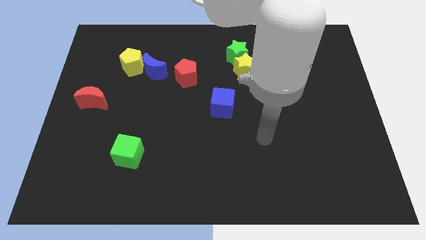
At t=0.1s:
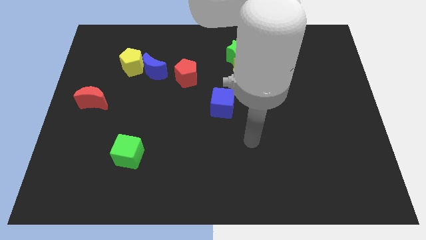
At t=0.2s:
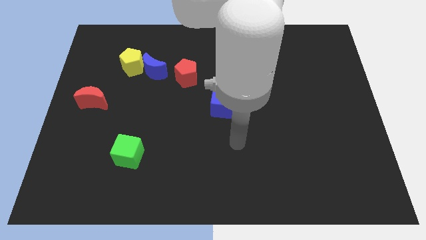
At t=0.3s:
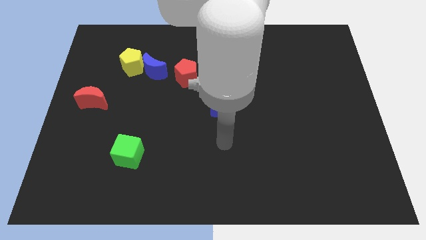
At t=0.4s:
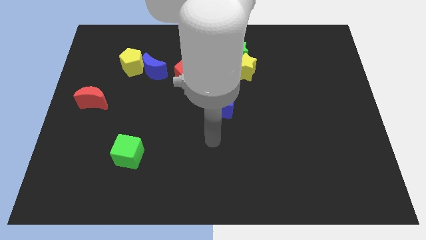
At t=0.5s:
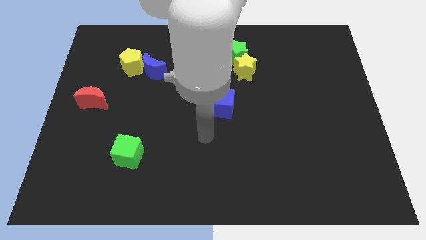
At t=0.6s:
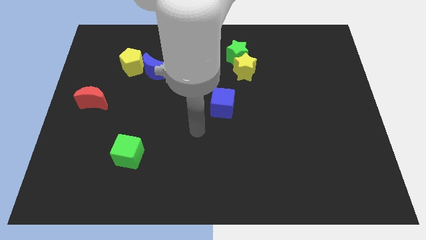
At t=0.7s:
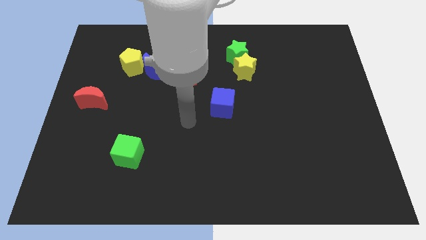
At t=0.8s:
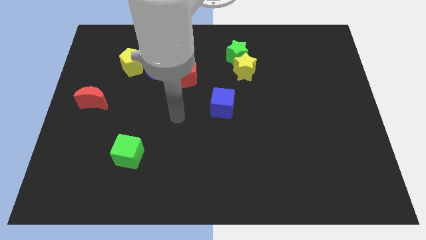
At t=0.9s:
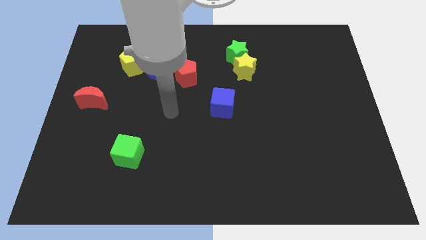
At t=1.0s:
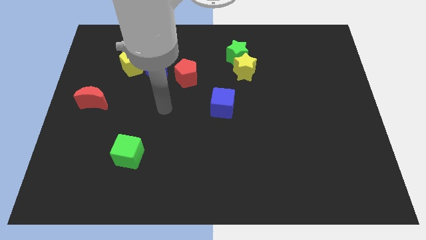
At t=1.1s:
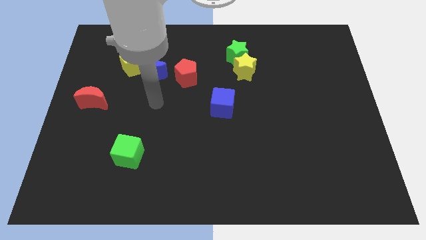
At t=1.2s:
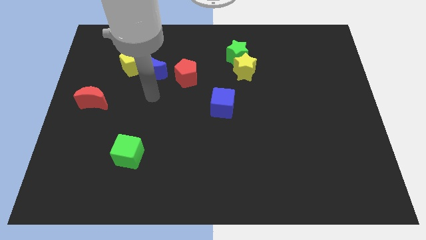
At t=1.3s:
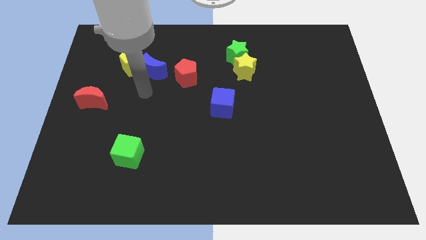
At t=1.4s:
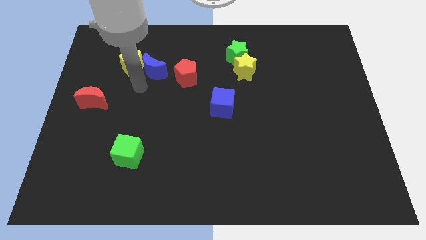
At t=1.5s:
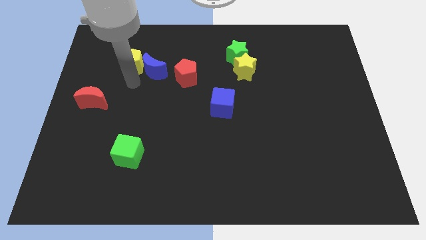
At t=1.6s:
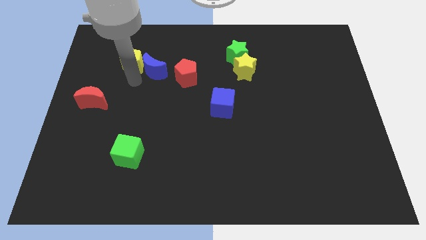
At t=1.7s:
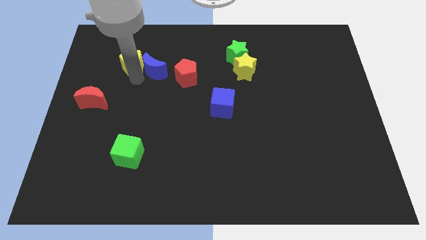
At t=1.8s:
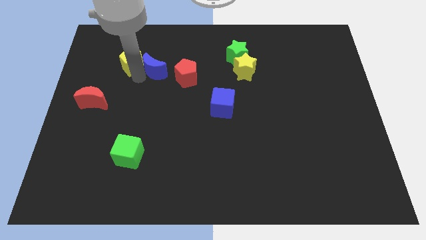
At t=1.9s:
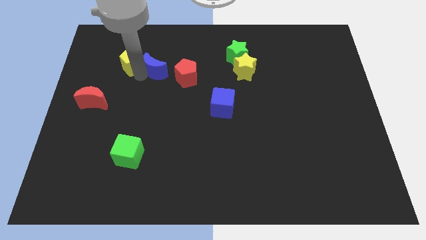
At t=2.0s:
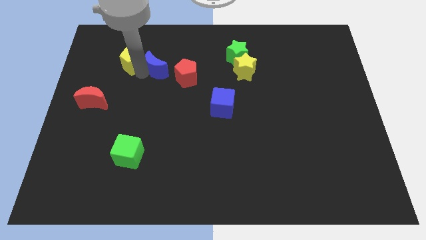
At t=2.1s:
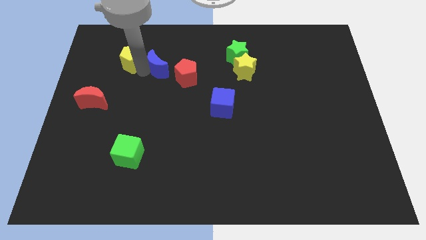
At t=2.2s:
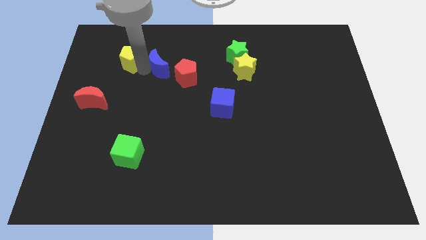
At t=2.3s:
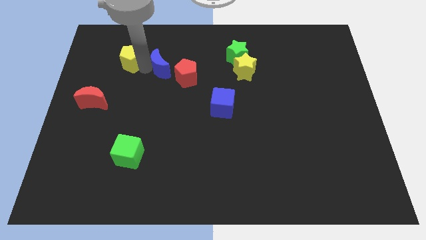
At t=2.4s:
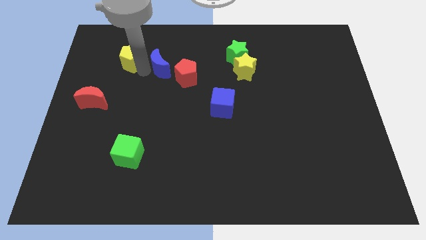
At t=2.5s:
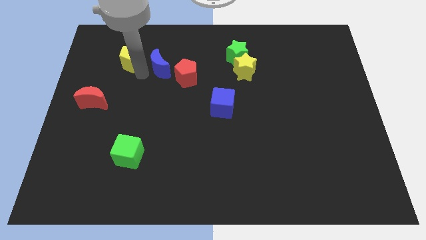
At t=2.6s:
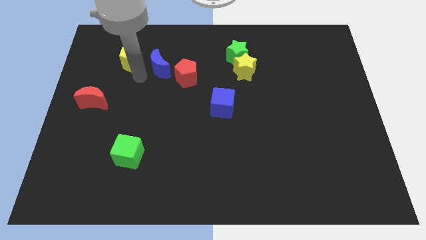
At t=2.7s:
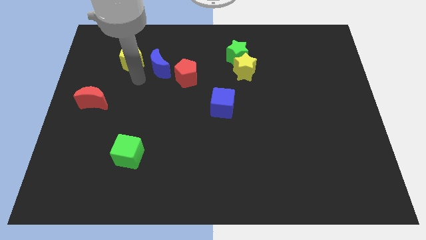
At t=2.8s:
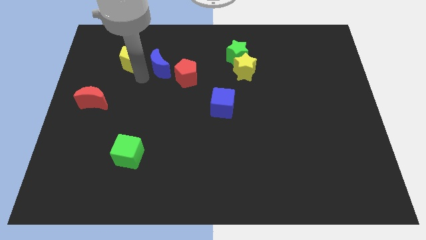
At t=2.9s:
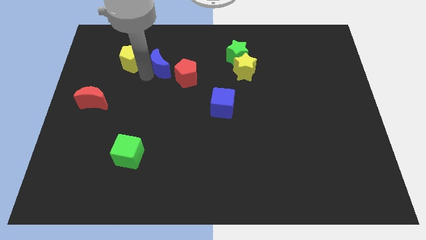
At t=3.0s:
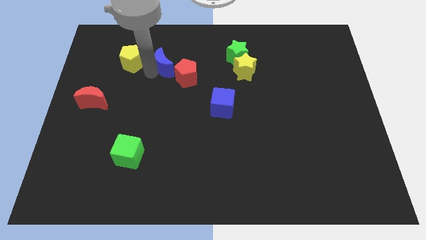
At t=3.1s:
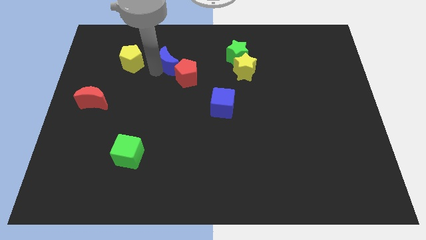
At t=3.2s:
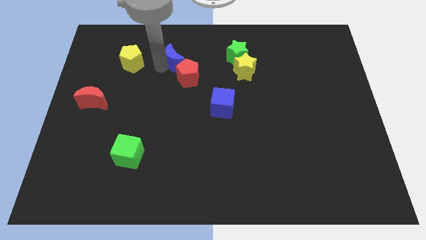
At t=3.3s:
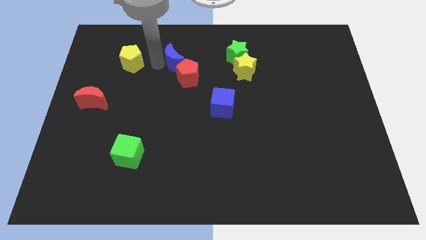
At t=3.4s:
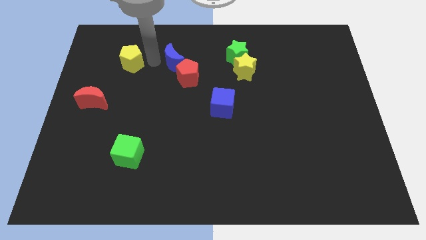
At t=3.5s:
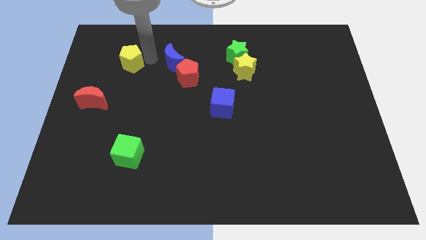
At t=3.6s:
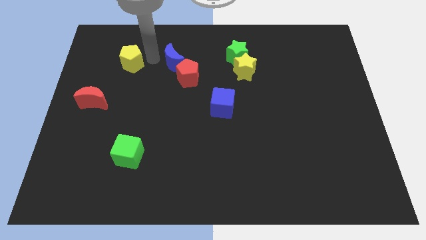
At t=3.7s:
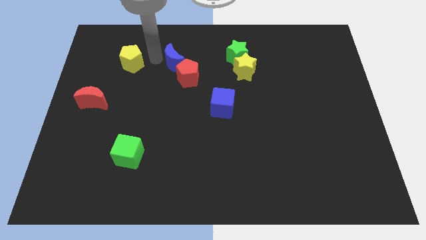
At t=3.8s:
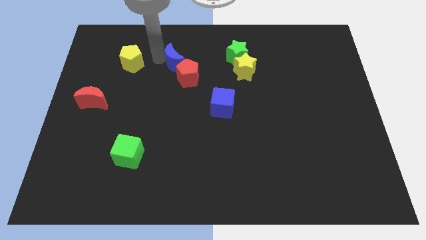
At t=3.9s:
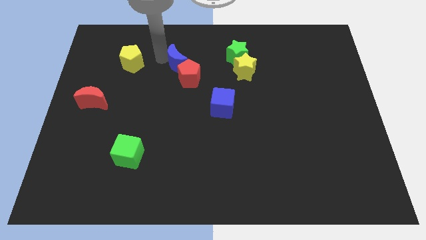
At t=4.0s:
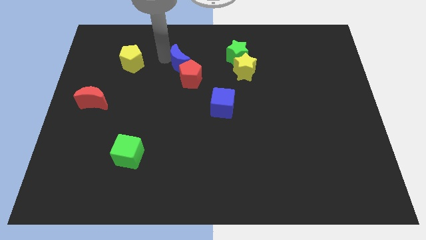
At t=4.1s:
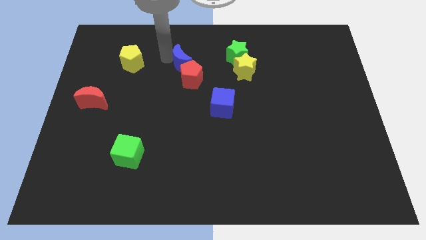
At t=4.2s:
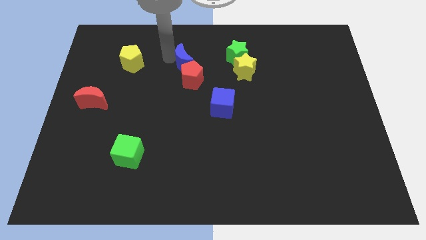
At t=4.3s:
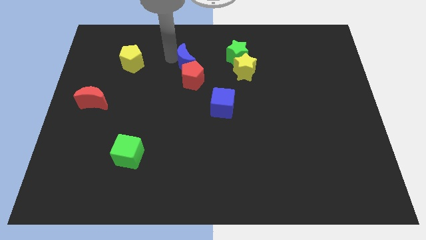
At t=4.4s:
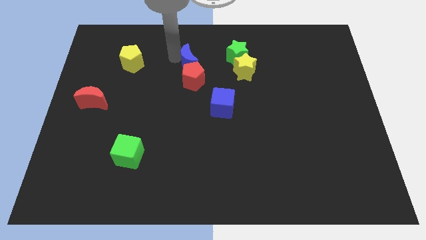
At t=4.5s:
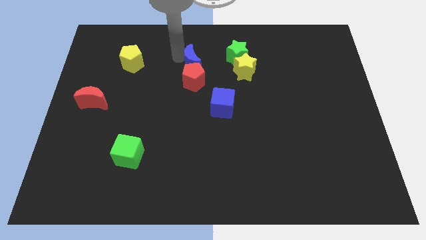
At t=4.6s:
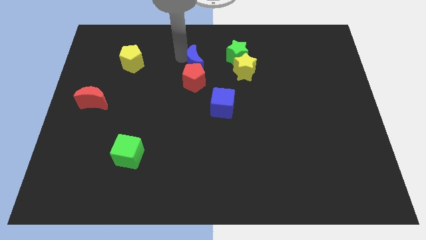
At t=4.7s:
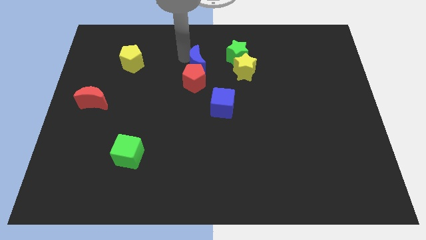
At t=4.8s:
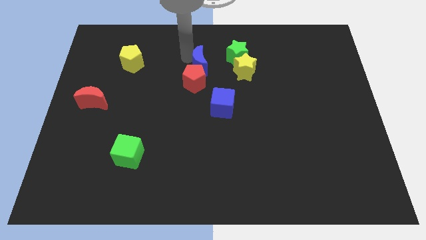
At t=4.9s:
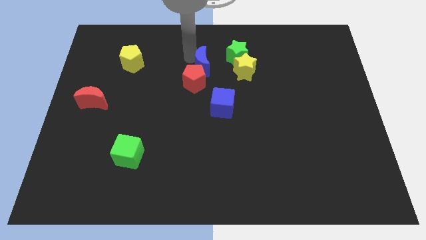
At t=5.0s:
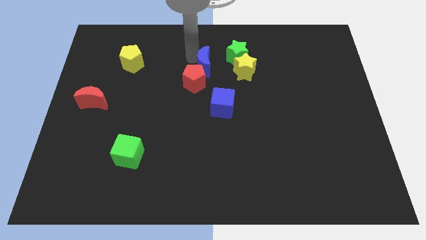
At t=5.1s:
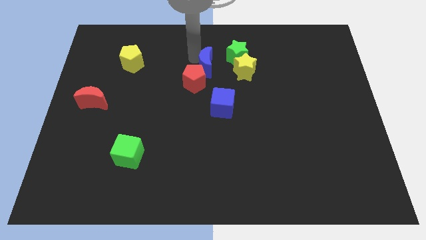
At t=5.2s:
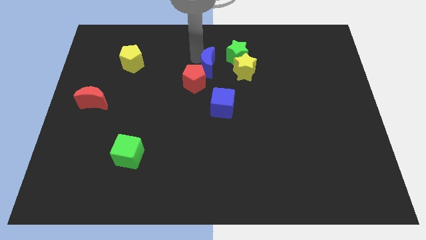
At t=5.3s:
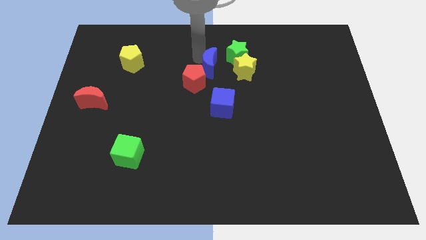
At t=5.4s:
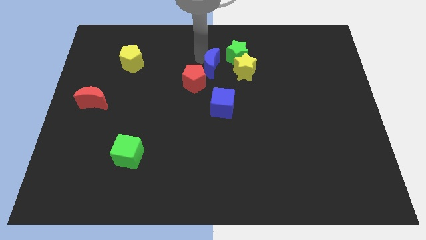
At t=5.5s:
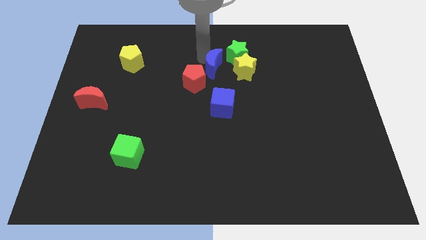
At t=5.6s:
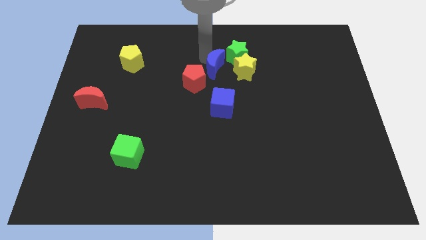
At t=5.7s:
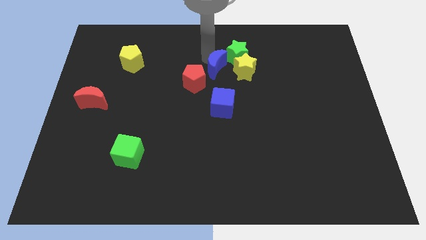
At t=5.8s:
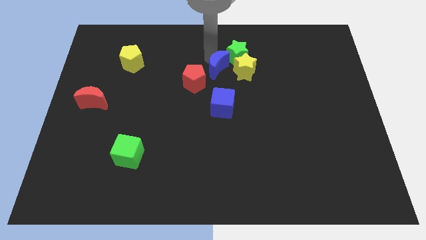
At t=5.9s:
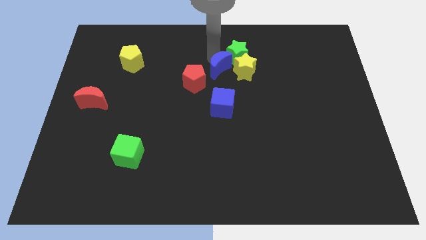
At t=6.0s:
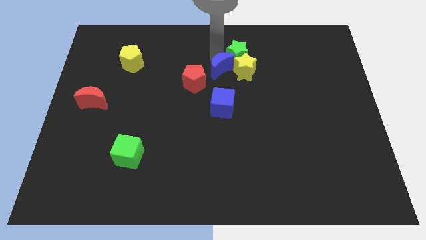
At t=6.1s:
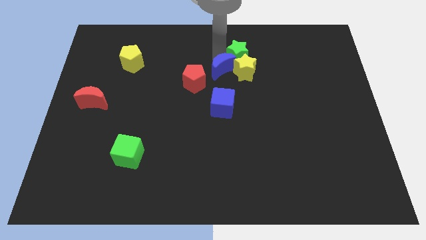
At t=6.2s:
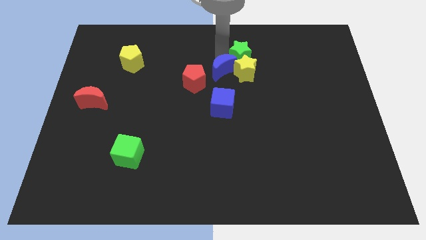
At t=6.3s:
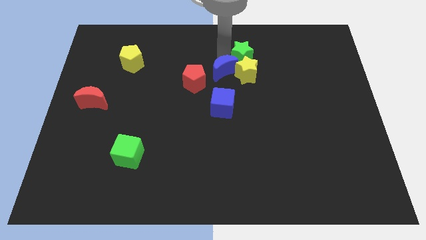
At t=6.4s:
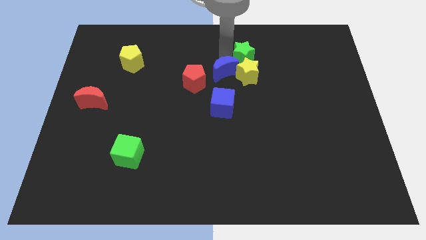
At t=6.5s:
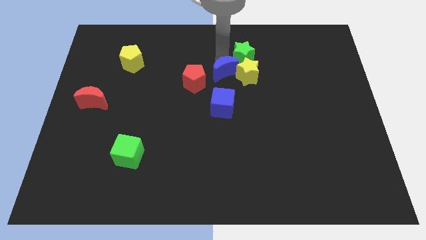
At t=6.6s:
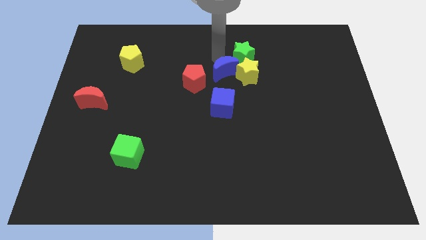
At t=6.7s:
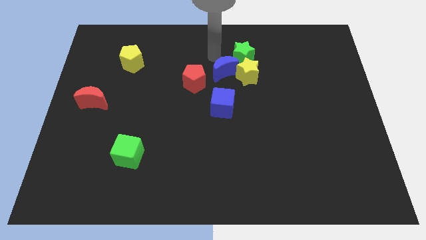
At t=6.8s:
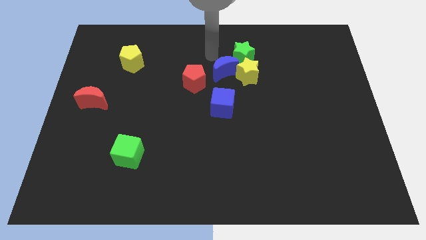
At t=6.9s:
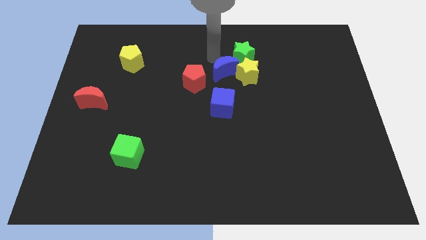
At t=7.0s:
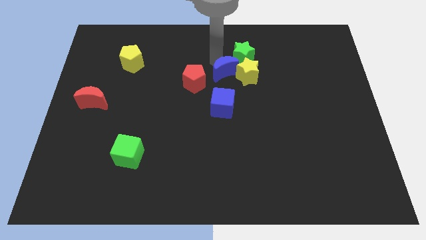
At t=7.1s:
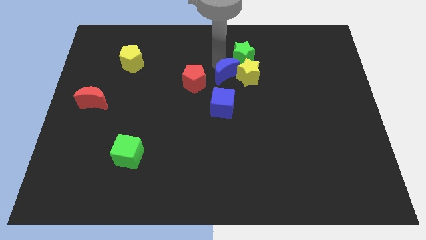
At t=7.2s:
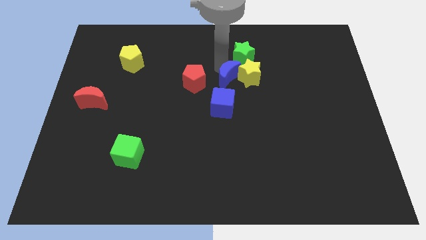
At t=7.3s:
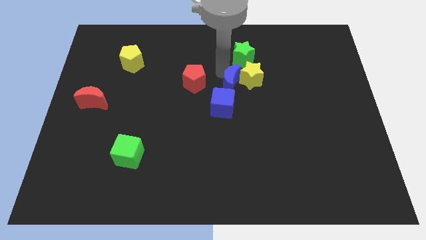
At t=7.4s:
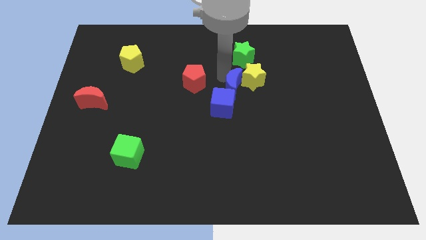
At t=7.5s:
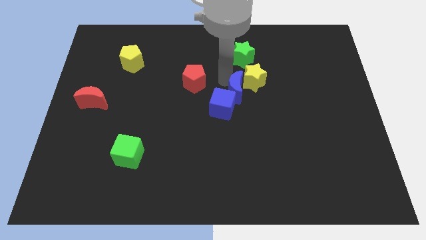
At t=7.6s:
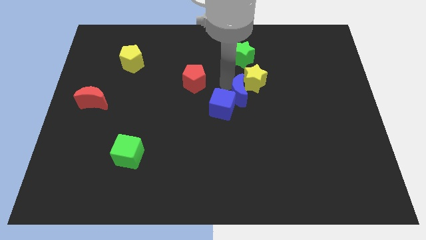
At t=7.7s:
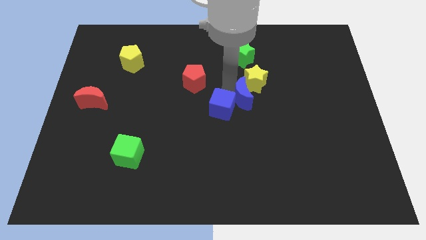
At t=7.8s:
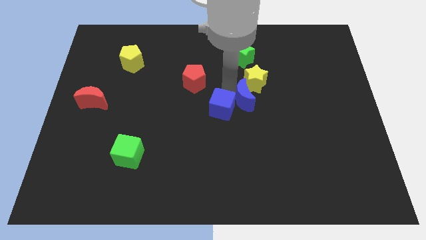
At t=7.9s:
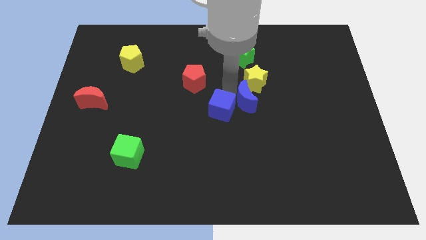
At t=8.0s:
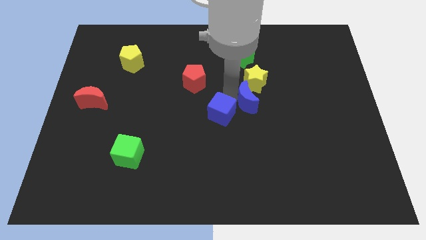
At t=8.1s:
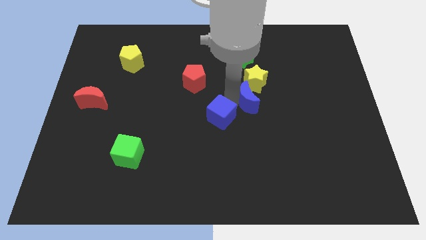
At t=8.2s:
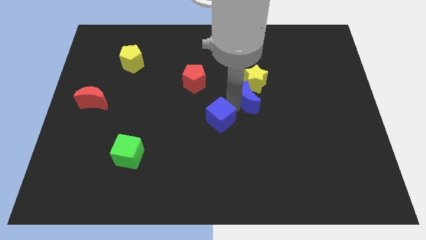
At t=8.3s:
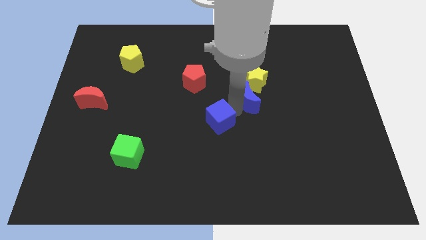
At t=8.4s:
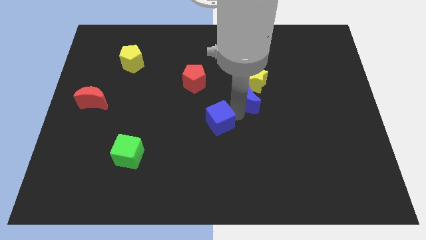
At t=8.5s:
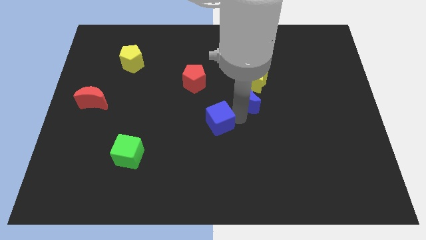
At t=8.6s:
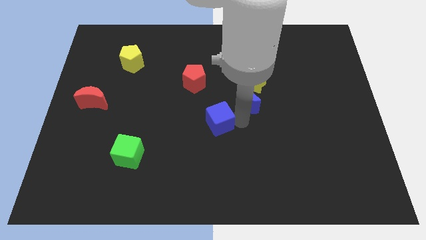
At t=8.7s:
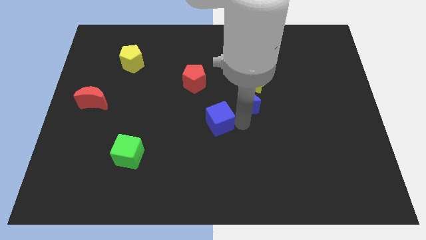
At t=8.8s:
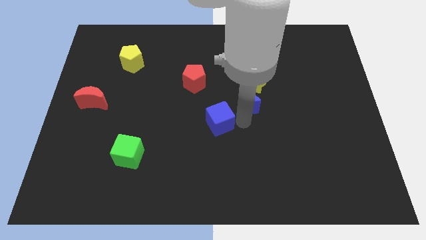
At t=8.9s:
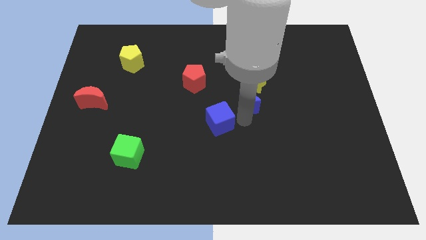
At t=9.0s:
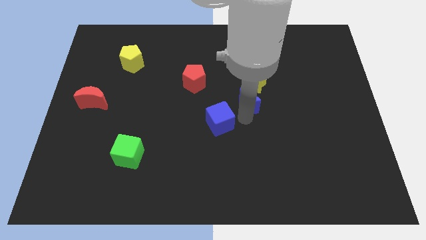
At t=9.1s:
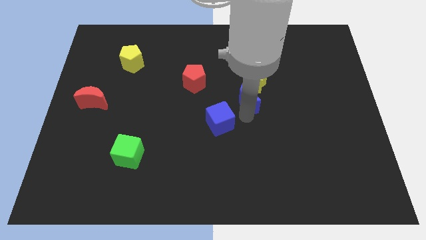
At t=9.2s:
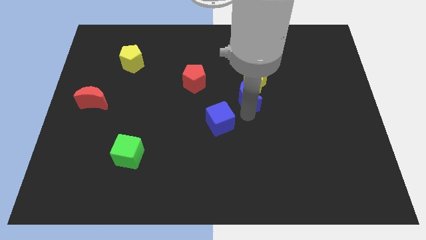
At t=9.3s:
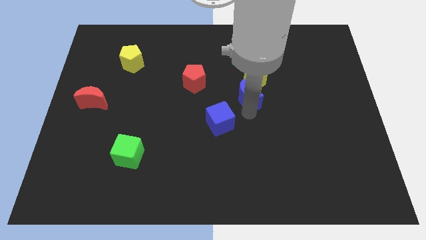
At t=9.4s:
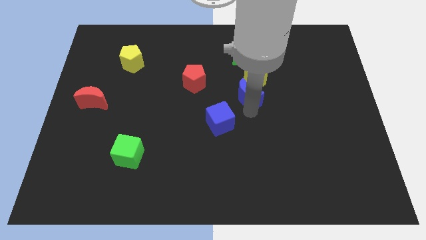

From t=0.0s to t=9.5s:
push the blue moon right
